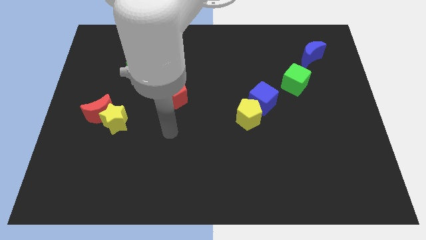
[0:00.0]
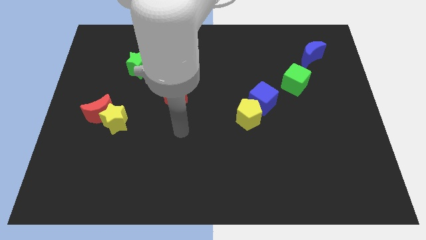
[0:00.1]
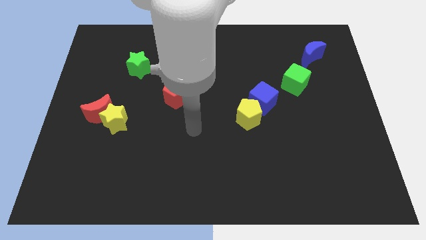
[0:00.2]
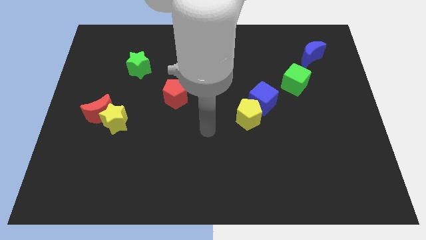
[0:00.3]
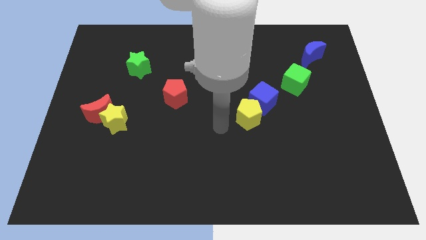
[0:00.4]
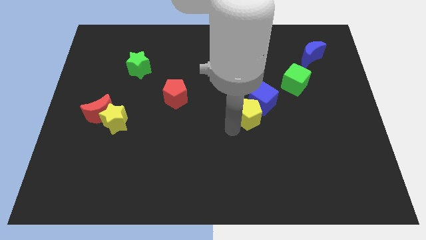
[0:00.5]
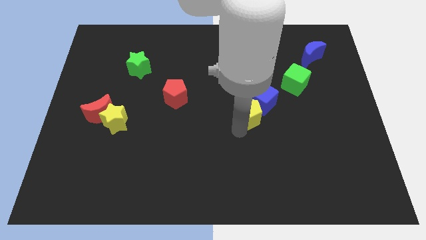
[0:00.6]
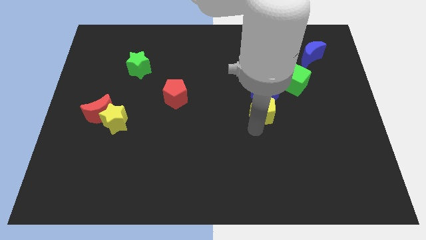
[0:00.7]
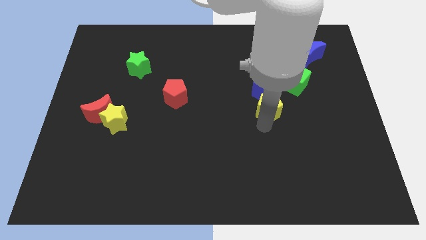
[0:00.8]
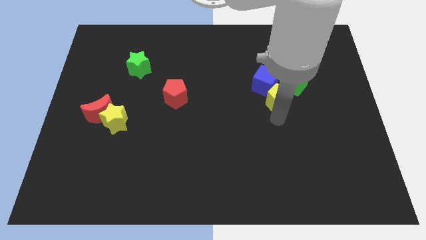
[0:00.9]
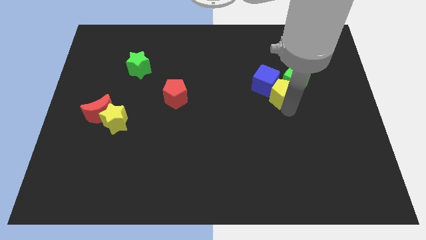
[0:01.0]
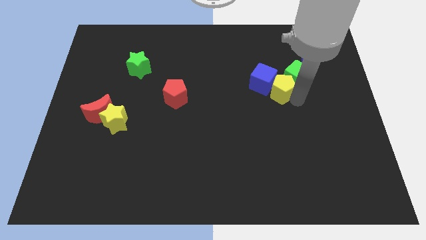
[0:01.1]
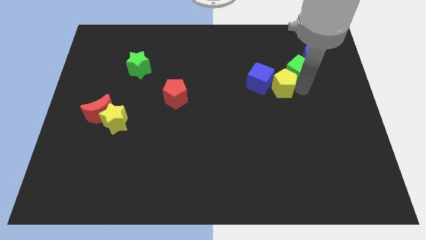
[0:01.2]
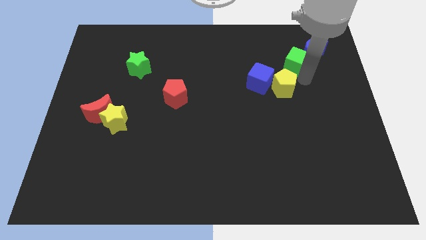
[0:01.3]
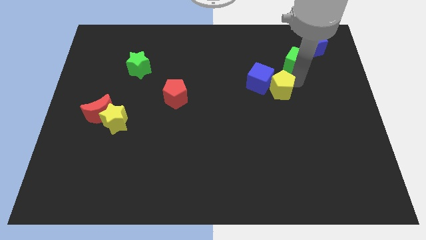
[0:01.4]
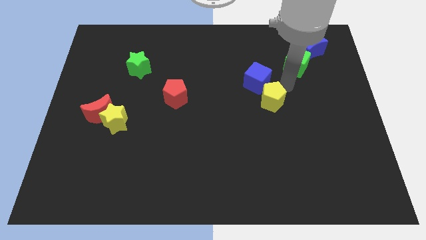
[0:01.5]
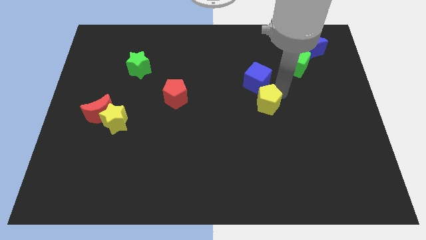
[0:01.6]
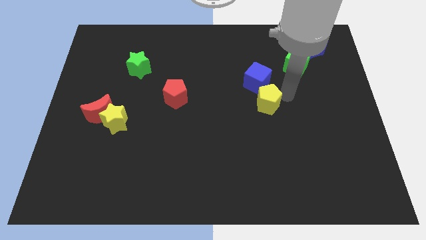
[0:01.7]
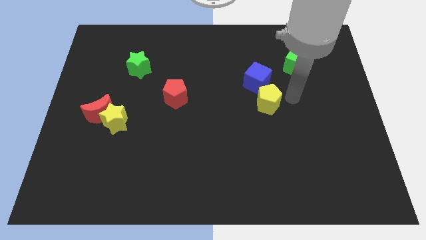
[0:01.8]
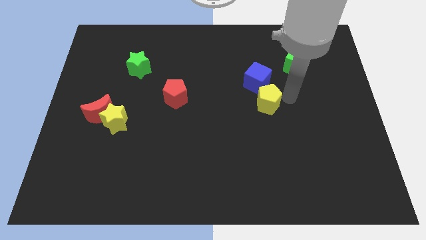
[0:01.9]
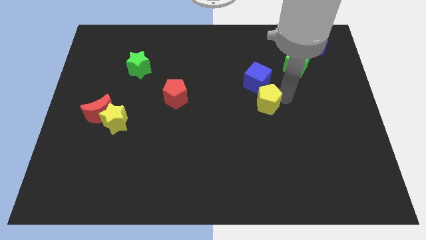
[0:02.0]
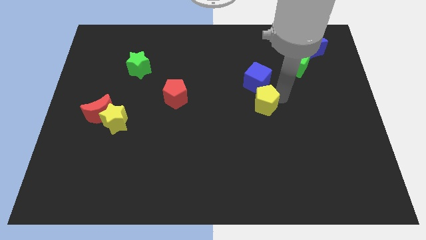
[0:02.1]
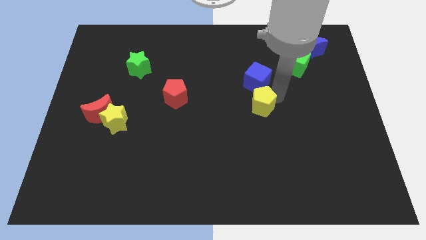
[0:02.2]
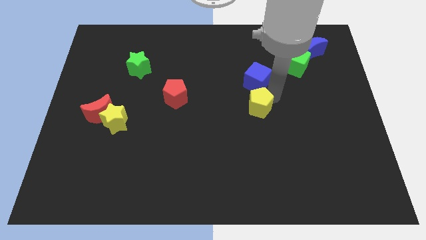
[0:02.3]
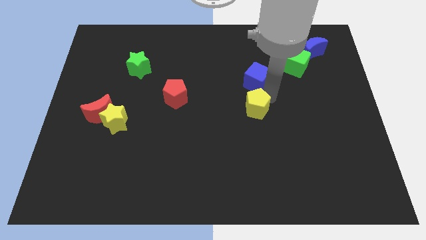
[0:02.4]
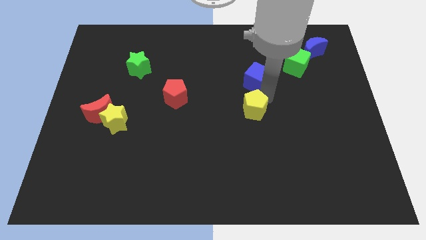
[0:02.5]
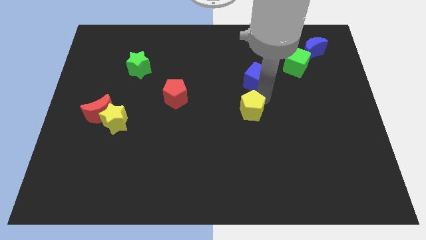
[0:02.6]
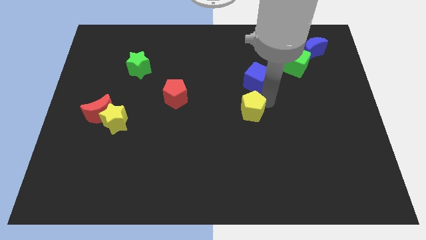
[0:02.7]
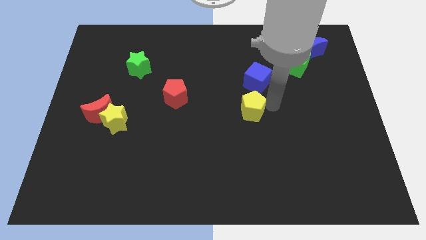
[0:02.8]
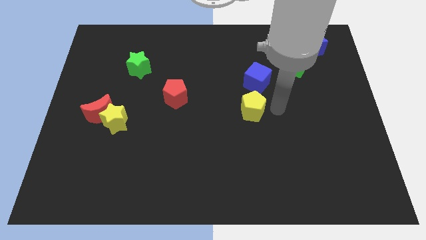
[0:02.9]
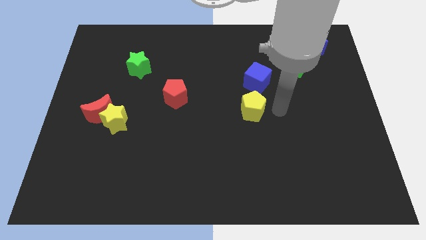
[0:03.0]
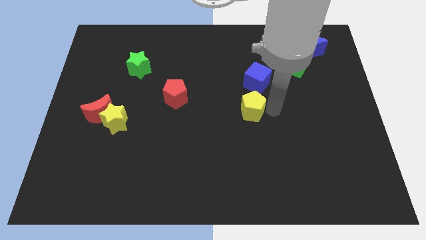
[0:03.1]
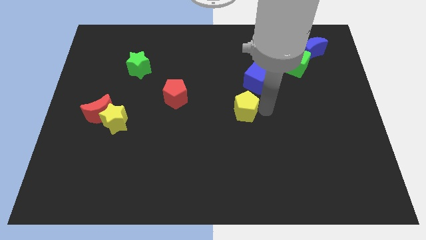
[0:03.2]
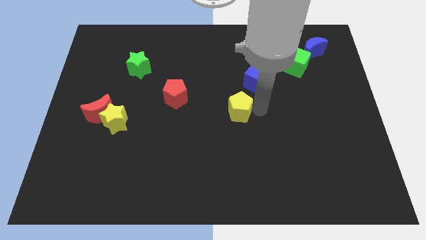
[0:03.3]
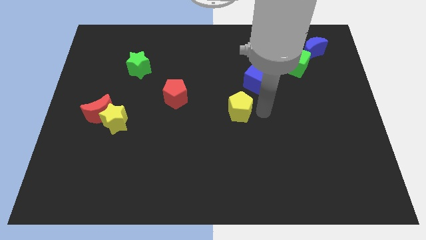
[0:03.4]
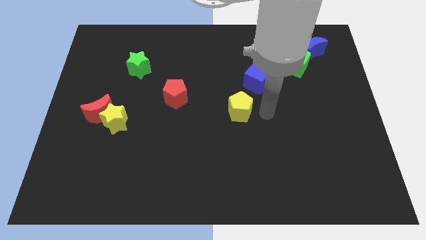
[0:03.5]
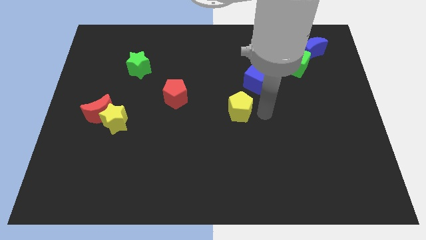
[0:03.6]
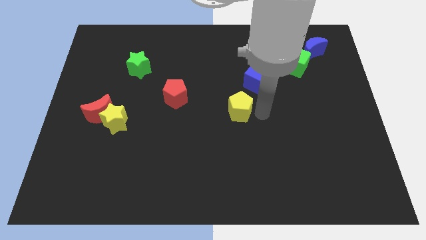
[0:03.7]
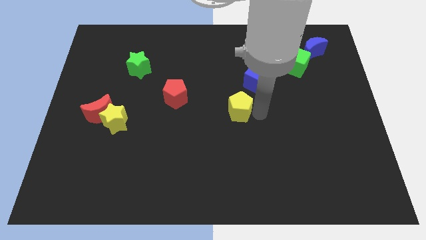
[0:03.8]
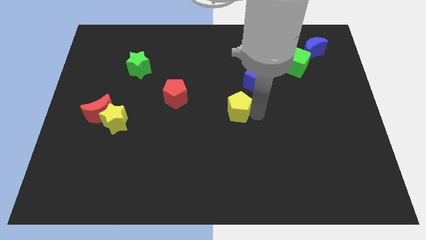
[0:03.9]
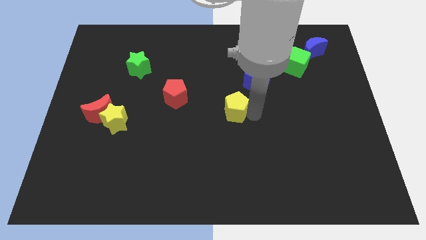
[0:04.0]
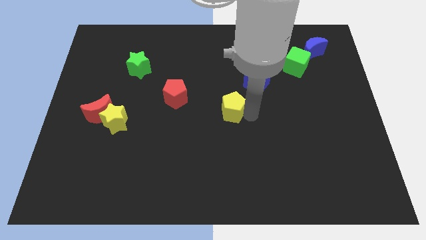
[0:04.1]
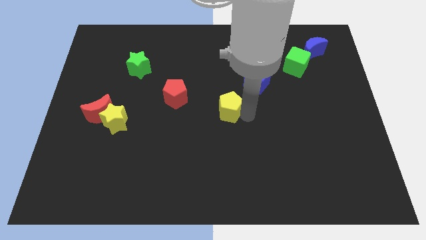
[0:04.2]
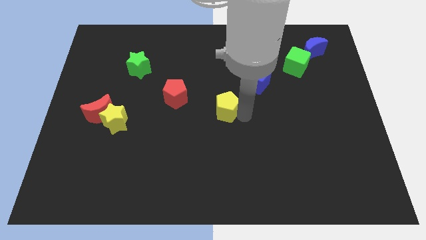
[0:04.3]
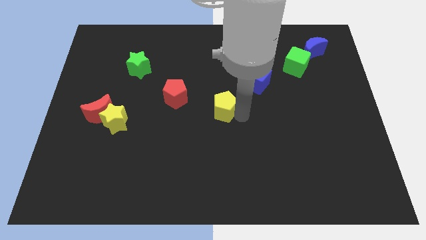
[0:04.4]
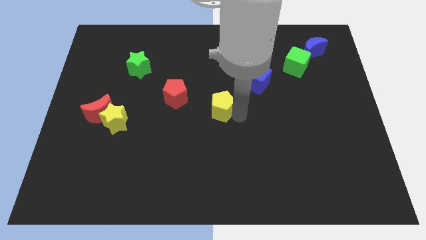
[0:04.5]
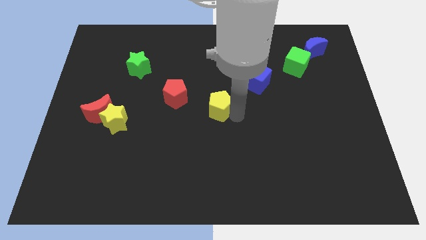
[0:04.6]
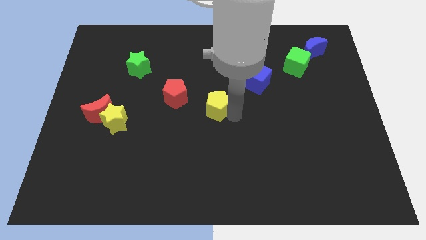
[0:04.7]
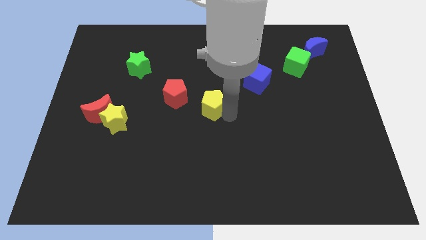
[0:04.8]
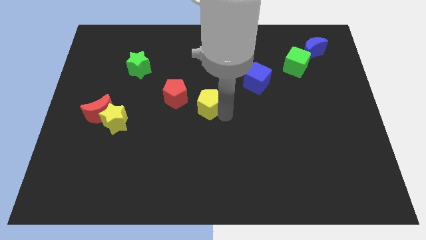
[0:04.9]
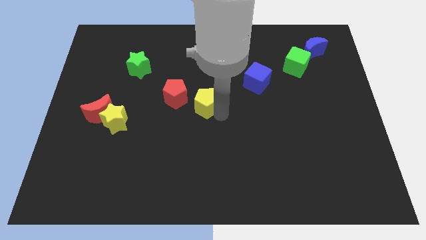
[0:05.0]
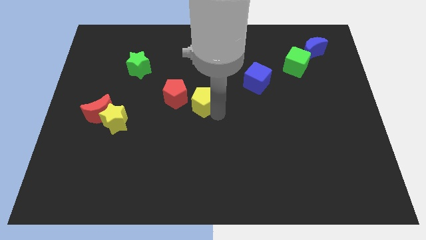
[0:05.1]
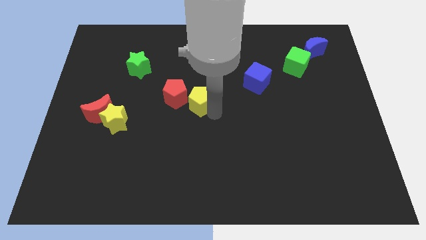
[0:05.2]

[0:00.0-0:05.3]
put the yellow pentagon towards the red pentagon

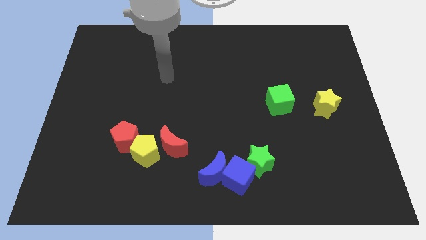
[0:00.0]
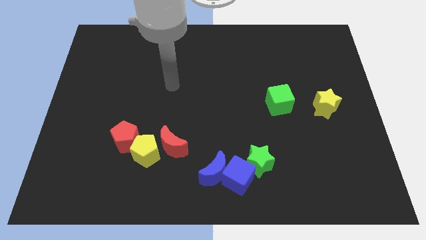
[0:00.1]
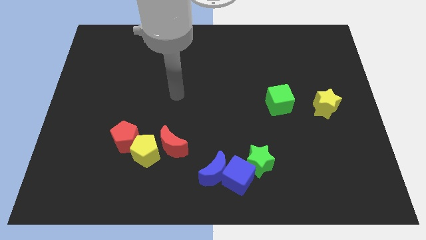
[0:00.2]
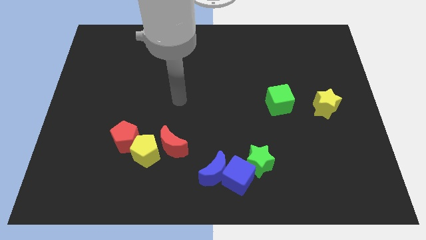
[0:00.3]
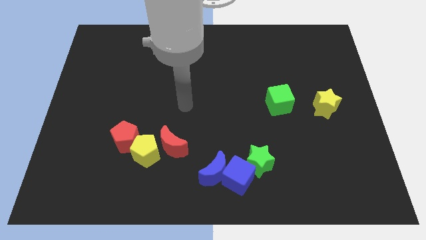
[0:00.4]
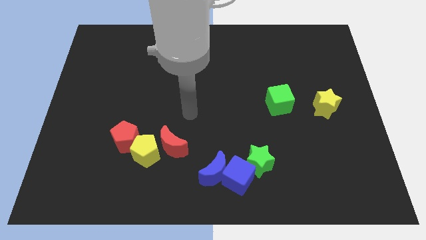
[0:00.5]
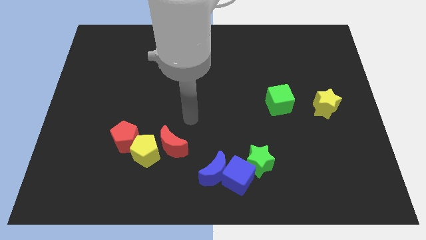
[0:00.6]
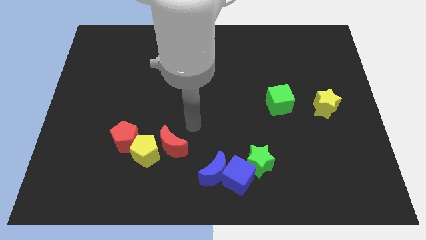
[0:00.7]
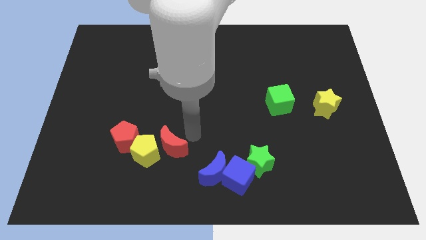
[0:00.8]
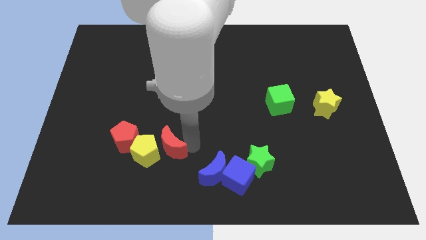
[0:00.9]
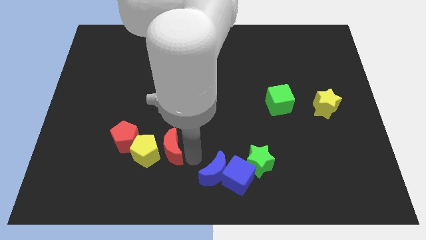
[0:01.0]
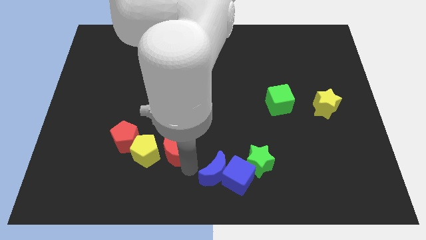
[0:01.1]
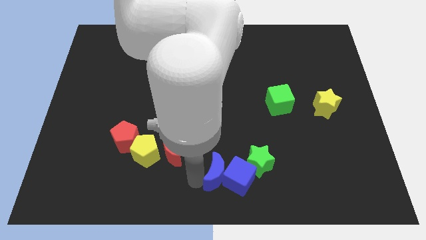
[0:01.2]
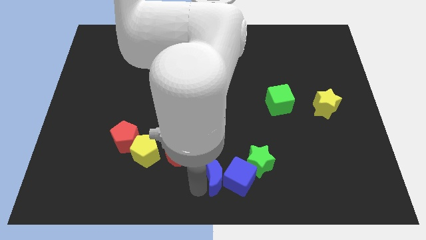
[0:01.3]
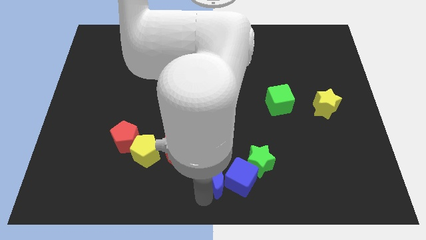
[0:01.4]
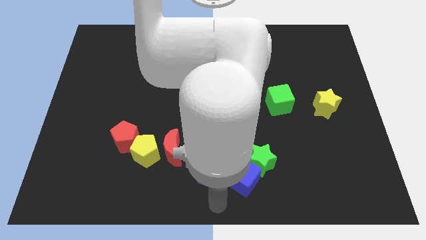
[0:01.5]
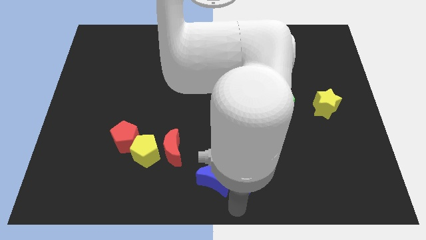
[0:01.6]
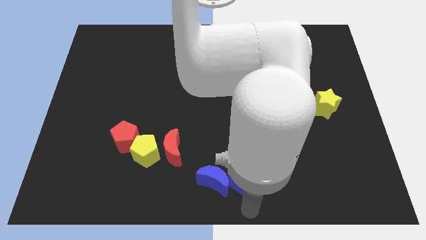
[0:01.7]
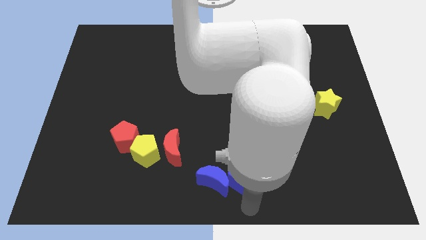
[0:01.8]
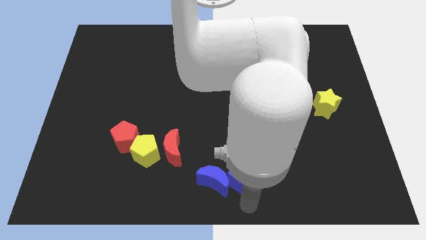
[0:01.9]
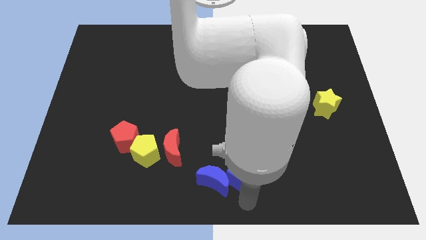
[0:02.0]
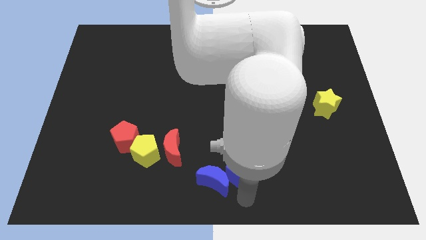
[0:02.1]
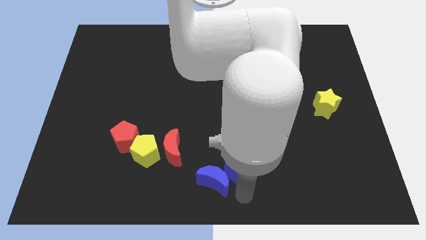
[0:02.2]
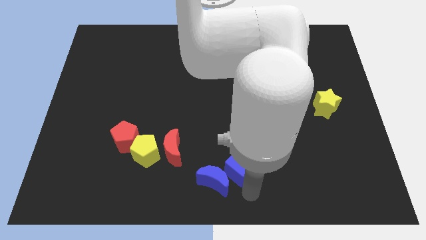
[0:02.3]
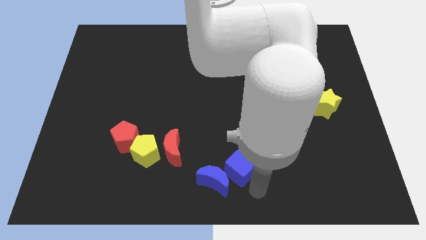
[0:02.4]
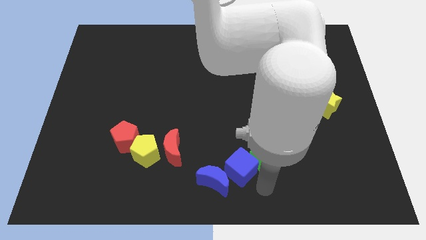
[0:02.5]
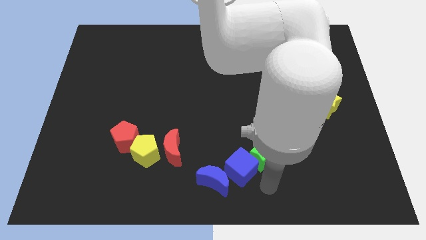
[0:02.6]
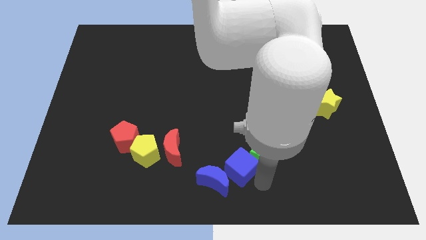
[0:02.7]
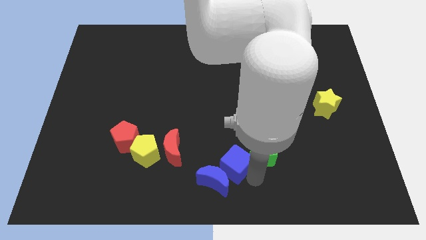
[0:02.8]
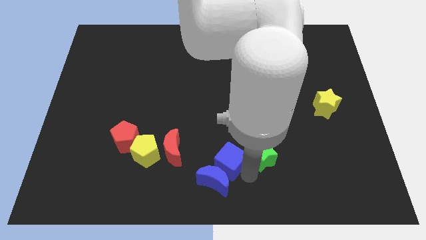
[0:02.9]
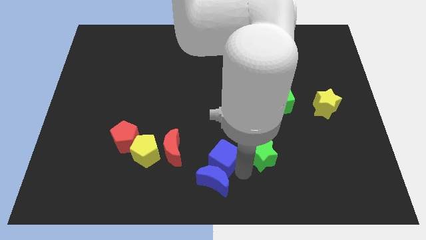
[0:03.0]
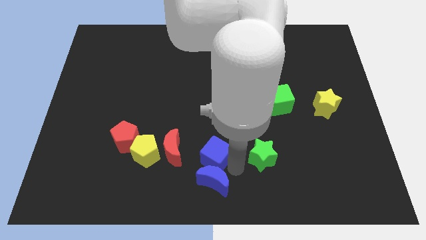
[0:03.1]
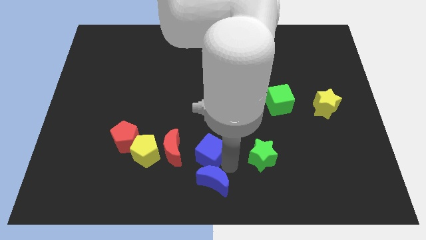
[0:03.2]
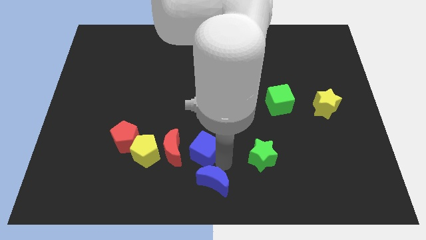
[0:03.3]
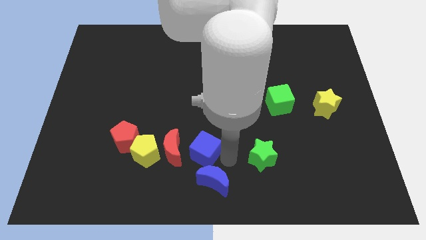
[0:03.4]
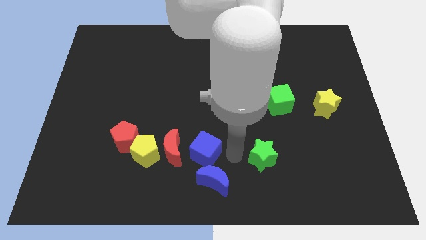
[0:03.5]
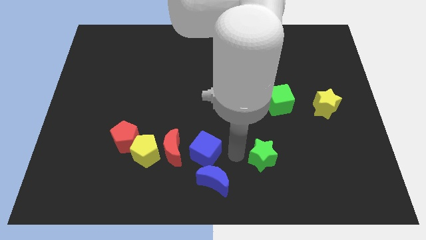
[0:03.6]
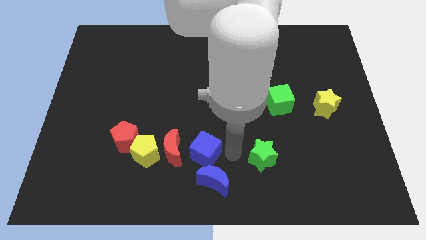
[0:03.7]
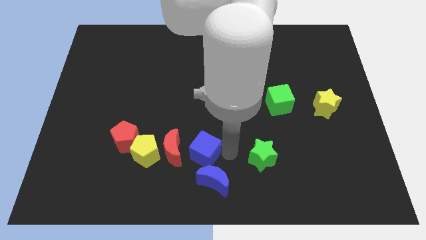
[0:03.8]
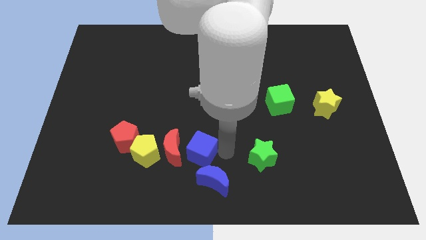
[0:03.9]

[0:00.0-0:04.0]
put the blue cube to the red moon
